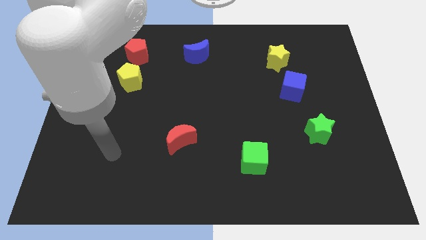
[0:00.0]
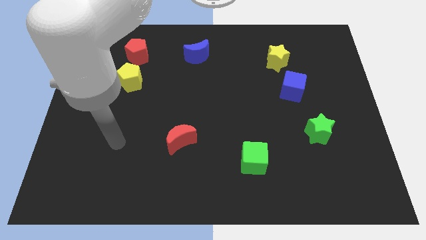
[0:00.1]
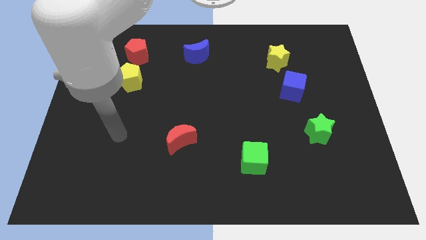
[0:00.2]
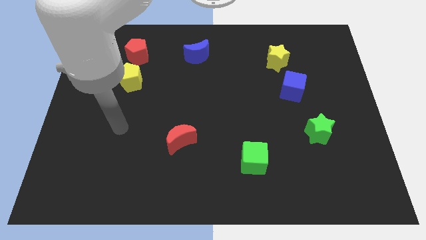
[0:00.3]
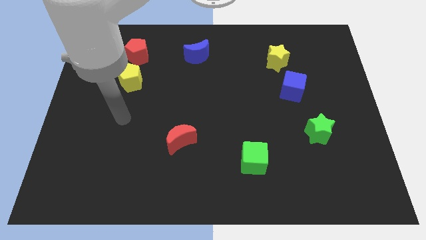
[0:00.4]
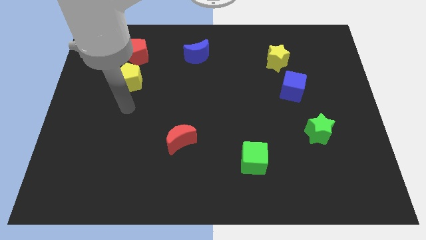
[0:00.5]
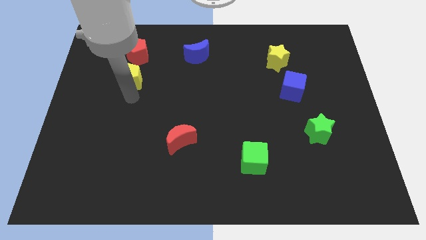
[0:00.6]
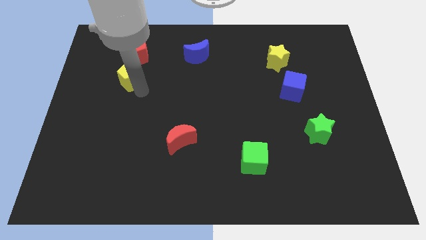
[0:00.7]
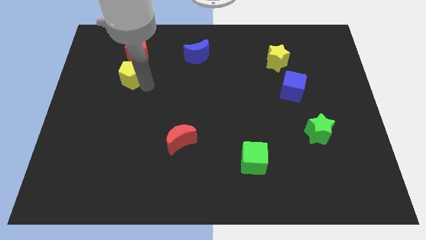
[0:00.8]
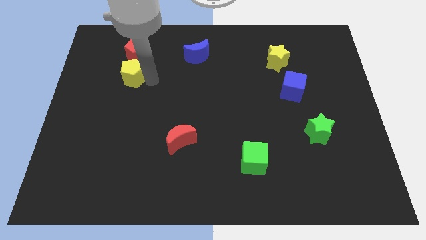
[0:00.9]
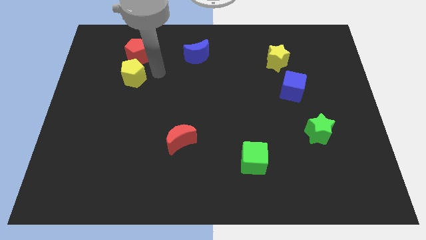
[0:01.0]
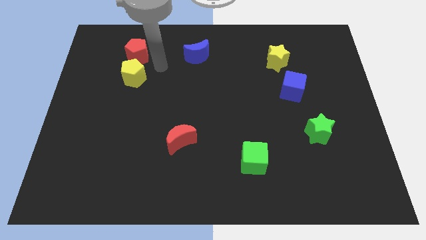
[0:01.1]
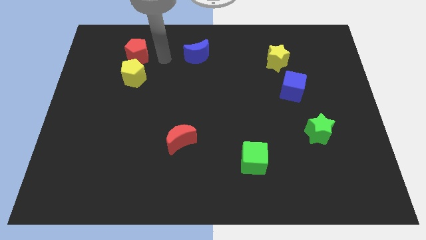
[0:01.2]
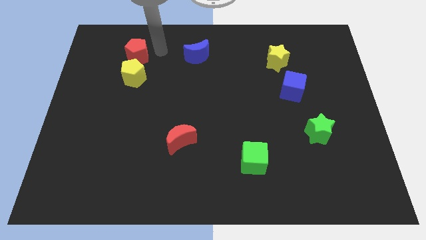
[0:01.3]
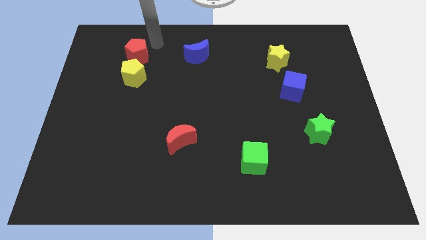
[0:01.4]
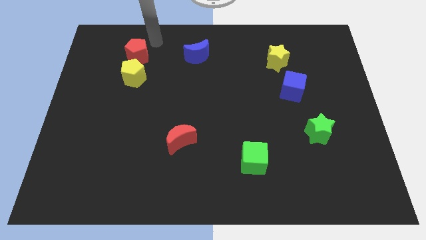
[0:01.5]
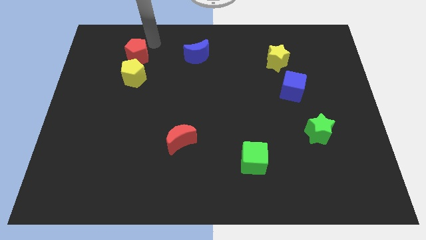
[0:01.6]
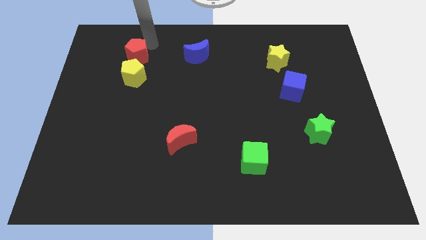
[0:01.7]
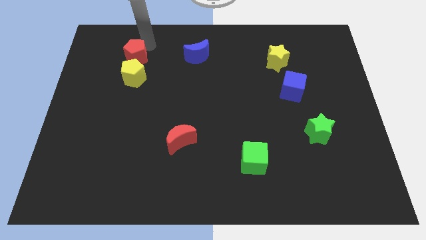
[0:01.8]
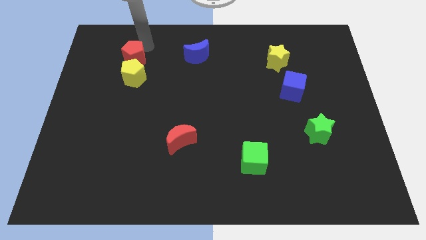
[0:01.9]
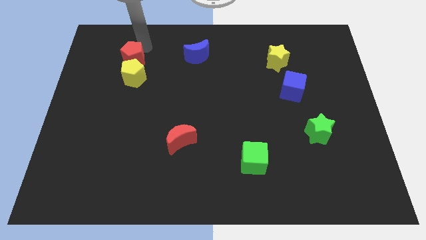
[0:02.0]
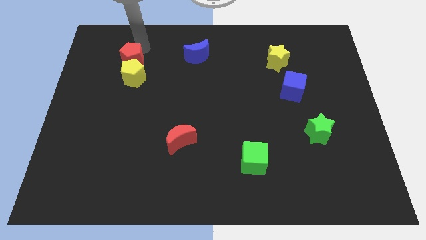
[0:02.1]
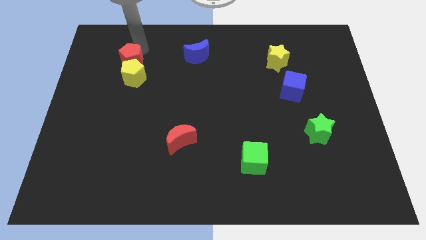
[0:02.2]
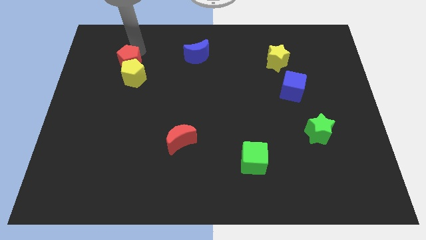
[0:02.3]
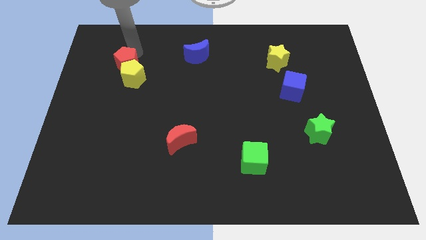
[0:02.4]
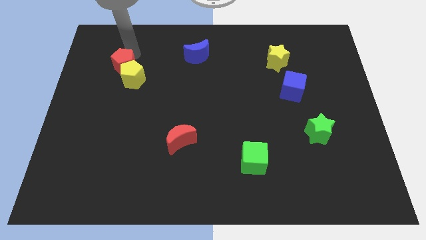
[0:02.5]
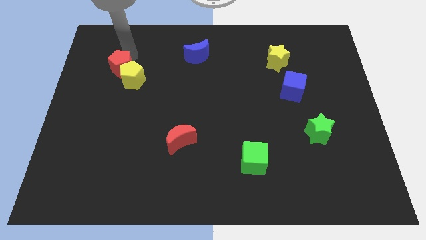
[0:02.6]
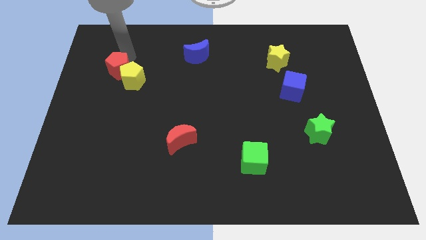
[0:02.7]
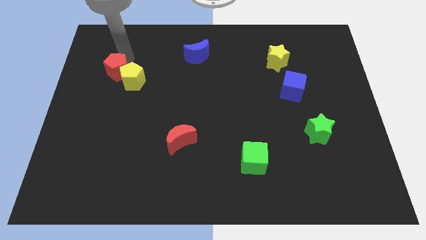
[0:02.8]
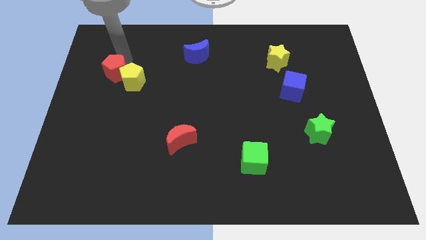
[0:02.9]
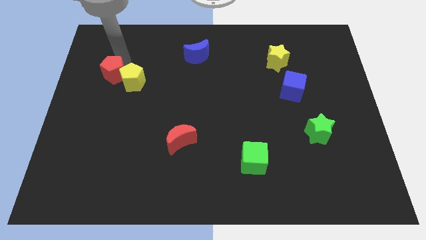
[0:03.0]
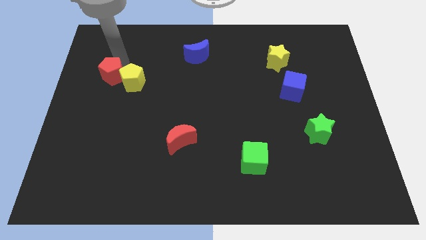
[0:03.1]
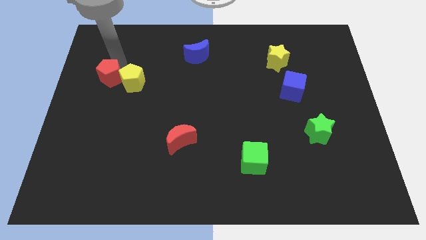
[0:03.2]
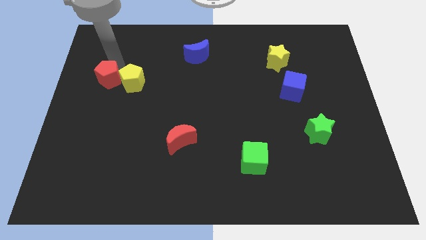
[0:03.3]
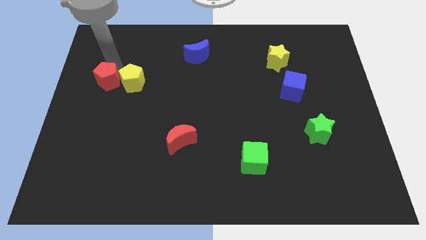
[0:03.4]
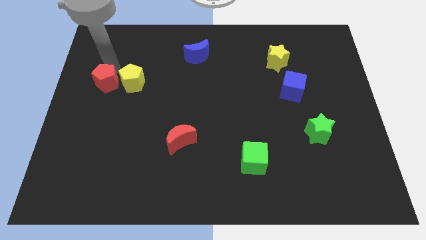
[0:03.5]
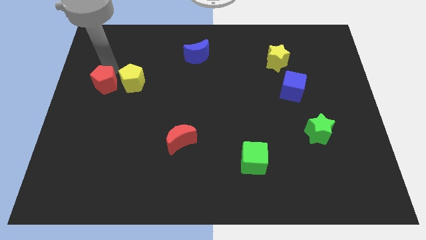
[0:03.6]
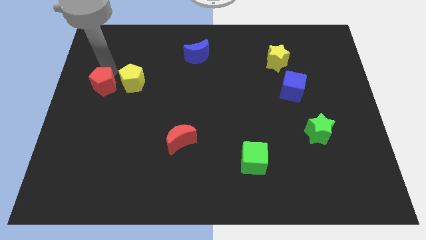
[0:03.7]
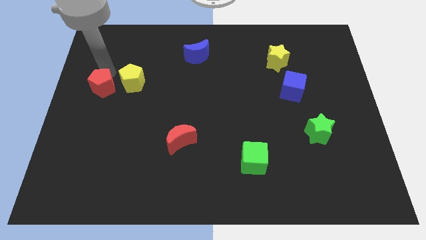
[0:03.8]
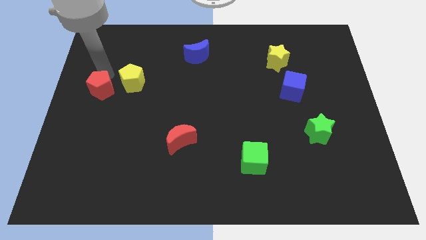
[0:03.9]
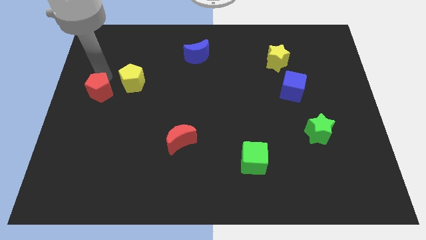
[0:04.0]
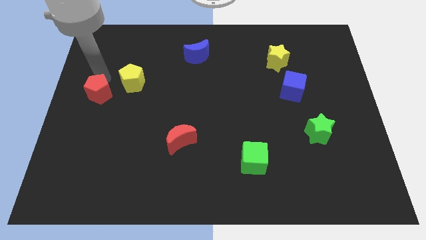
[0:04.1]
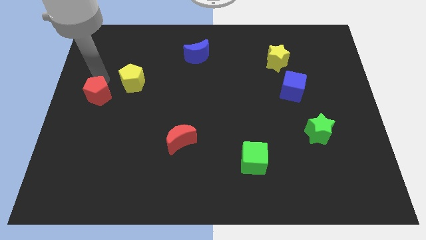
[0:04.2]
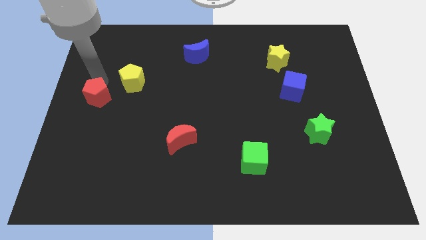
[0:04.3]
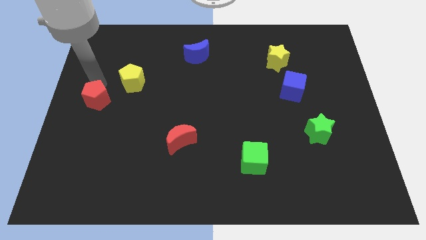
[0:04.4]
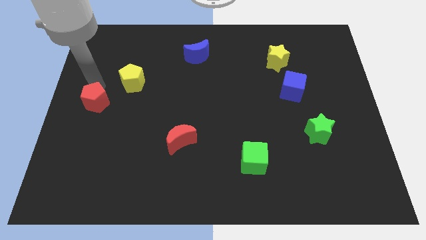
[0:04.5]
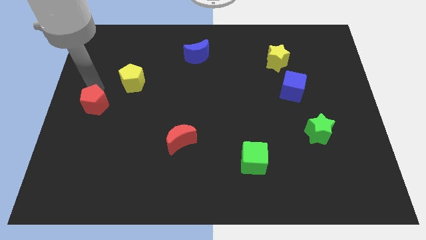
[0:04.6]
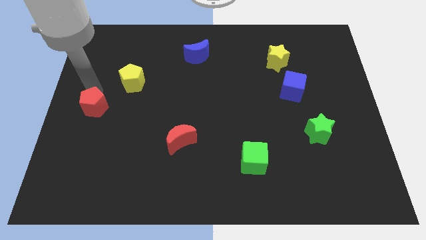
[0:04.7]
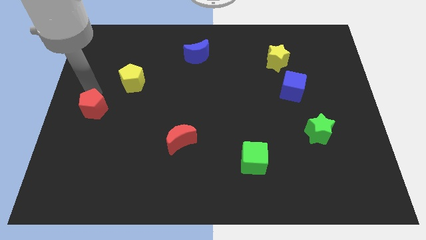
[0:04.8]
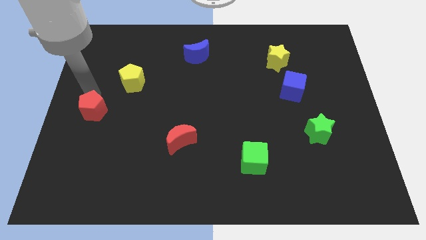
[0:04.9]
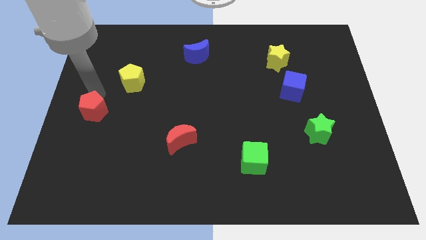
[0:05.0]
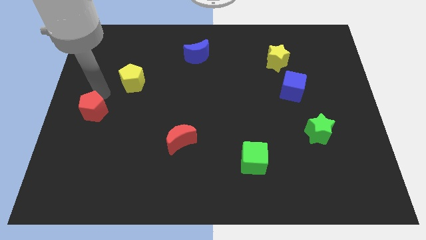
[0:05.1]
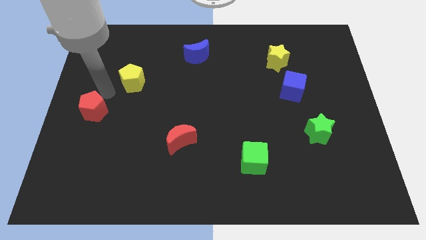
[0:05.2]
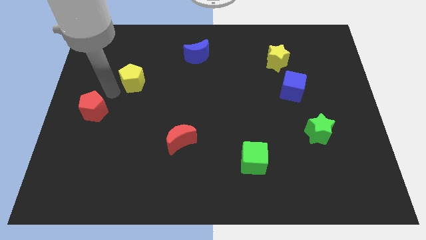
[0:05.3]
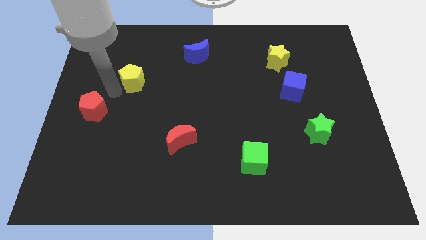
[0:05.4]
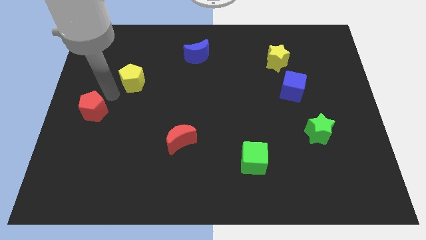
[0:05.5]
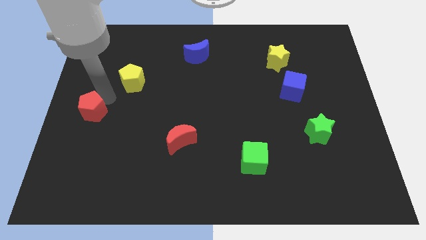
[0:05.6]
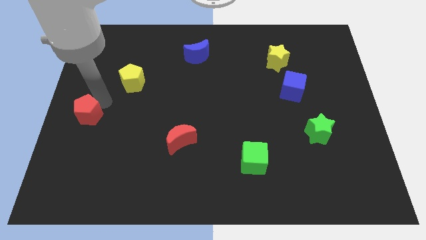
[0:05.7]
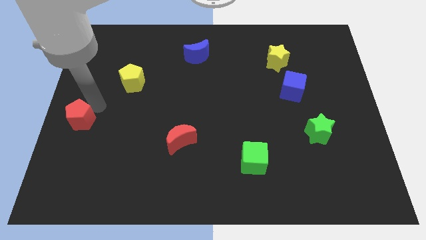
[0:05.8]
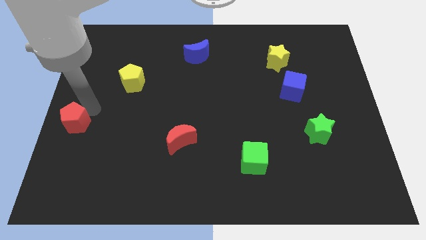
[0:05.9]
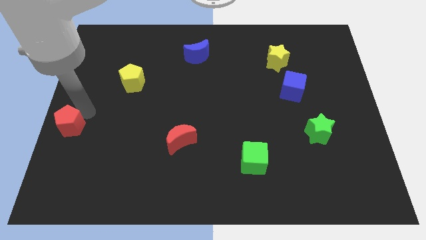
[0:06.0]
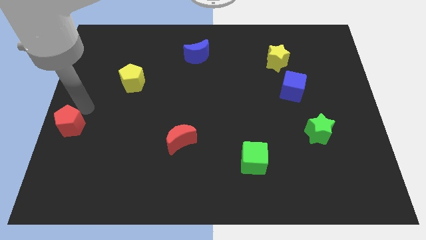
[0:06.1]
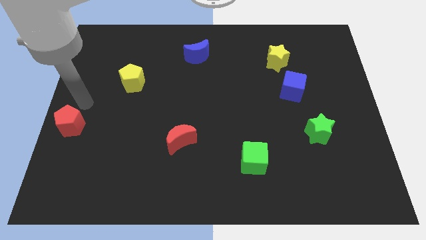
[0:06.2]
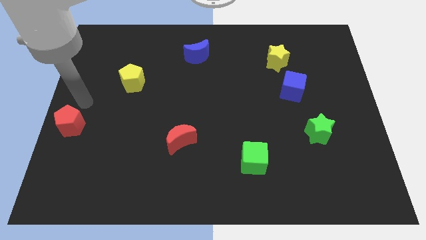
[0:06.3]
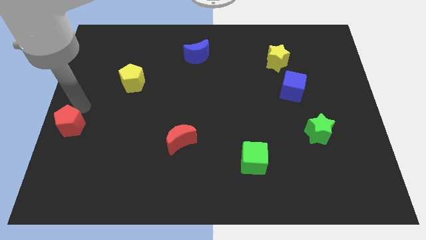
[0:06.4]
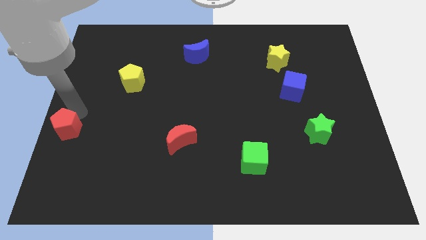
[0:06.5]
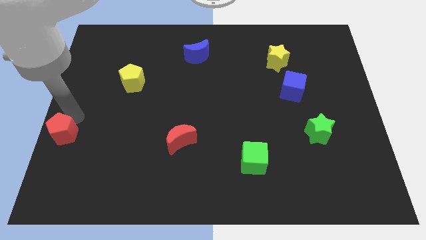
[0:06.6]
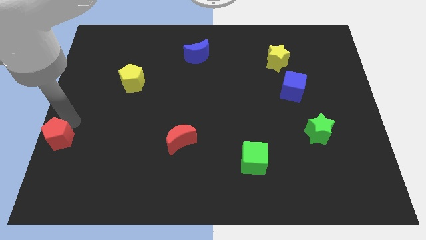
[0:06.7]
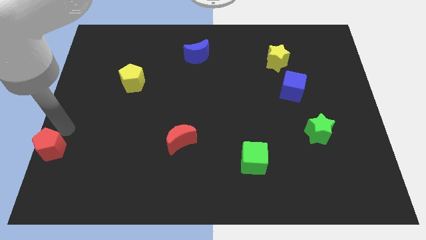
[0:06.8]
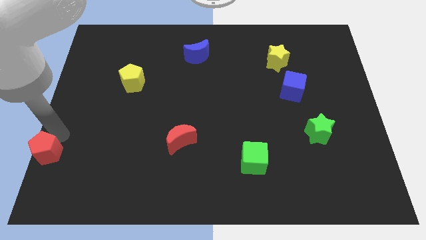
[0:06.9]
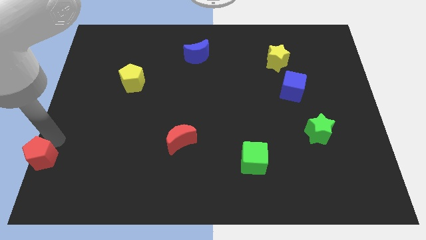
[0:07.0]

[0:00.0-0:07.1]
push the red pentagon to the bottom left corner
